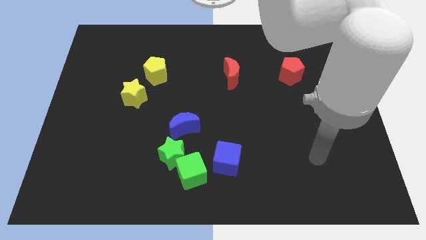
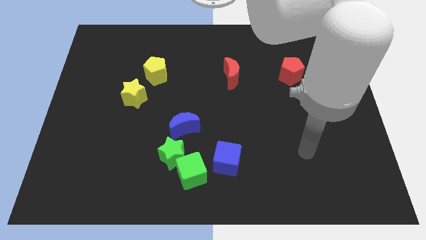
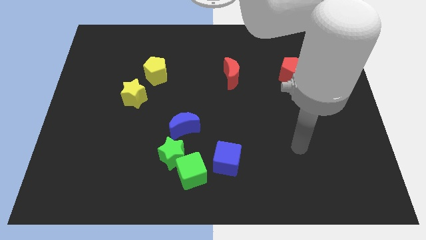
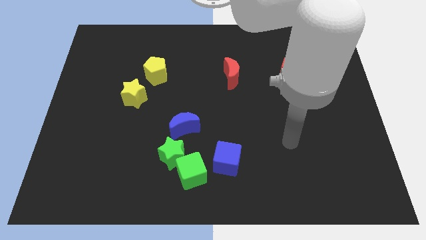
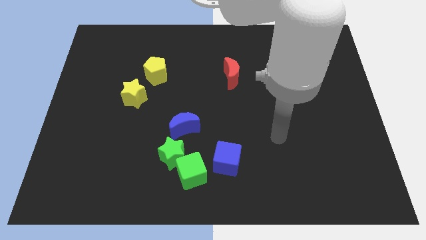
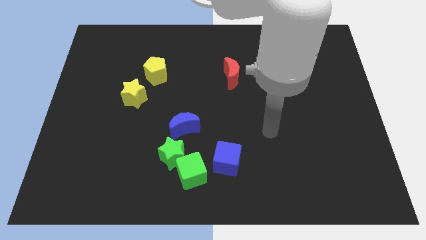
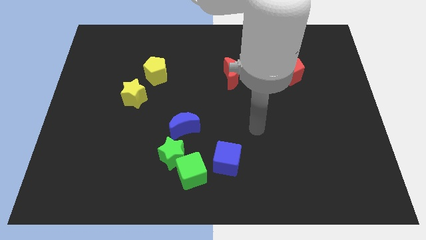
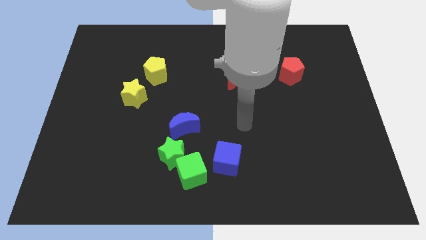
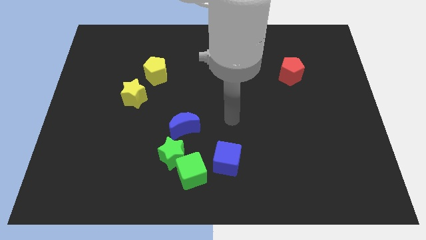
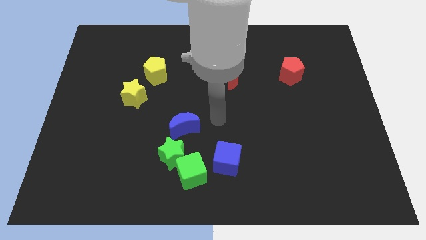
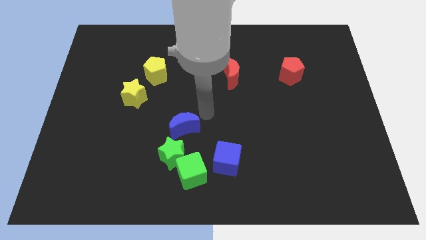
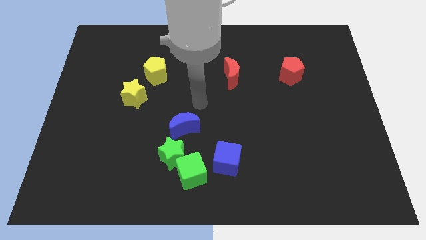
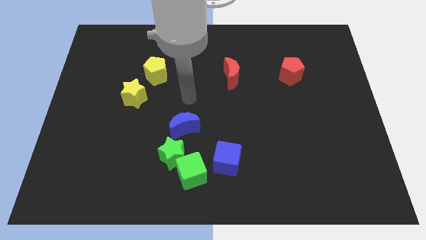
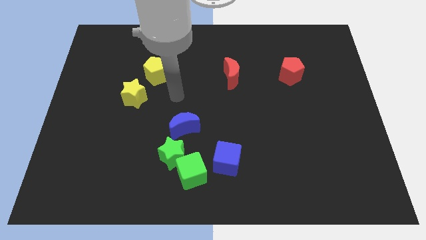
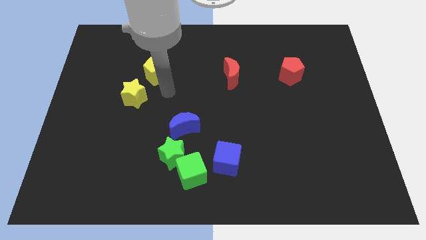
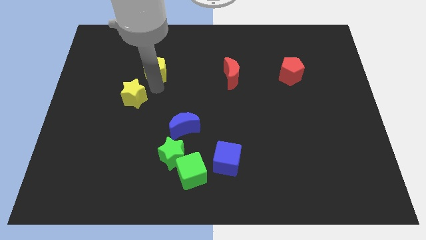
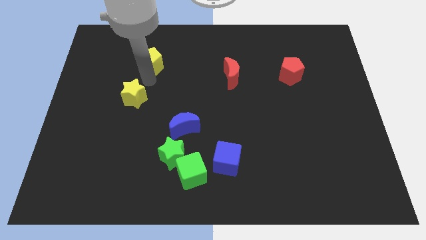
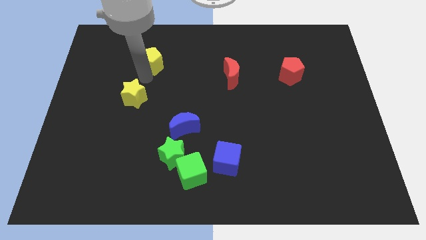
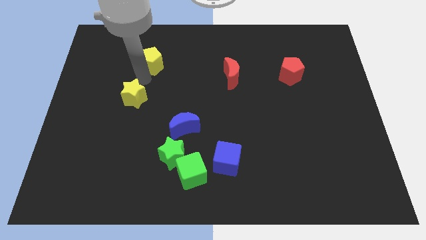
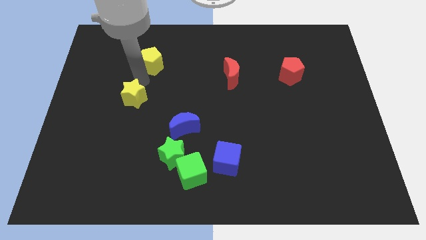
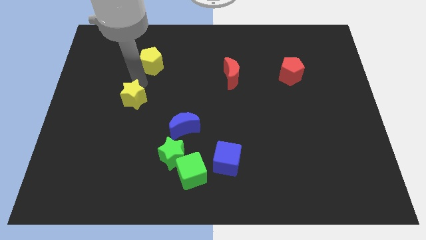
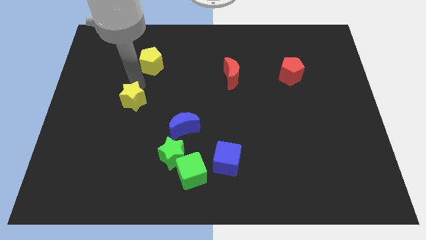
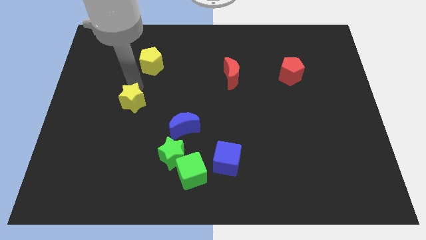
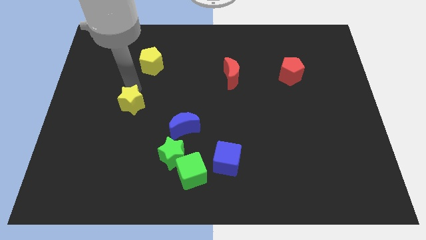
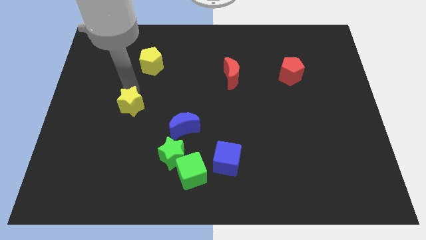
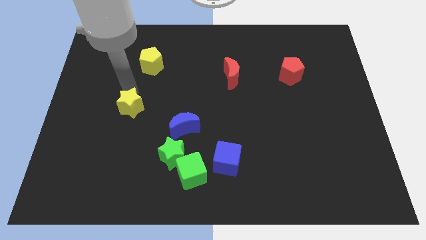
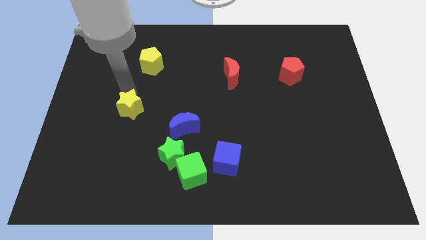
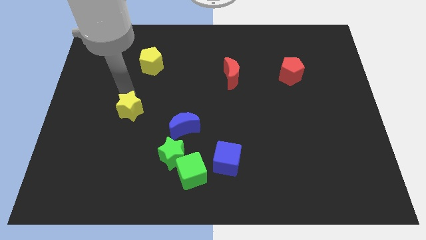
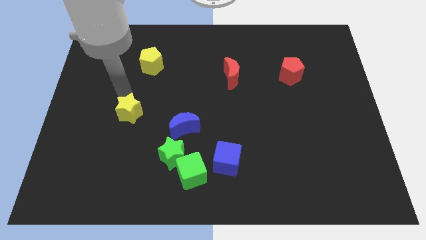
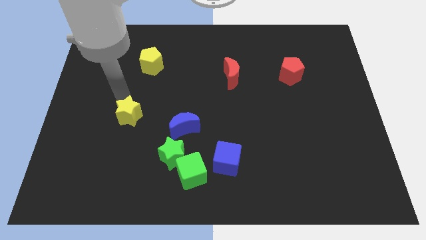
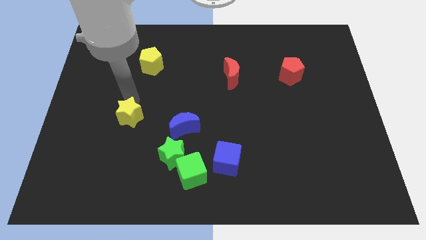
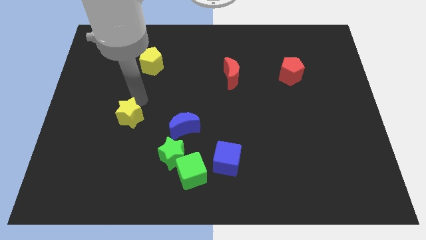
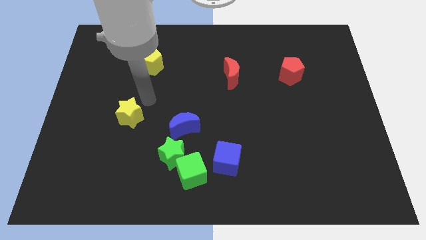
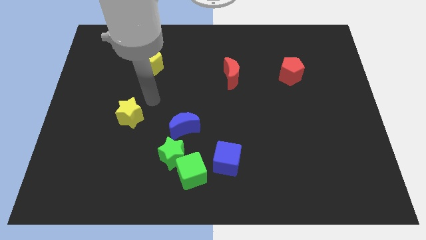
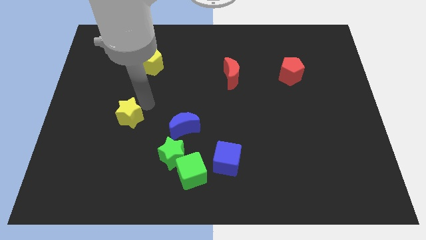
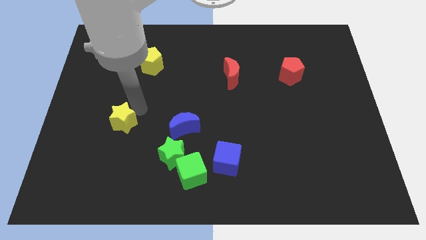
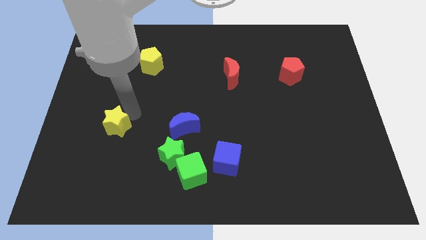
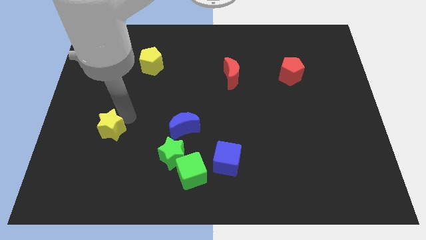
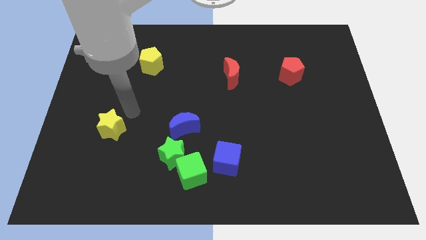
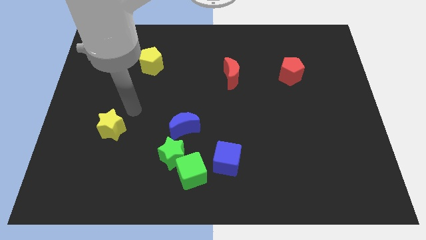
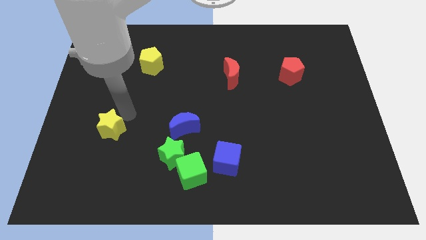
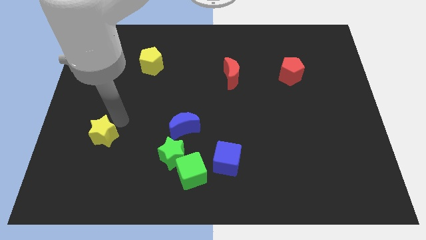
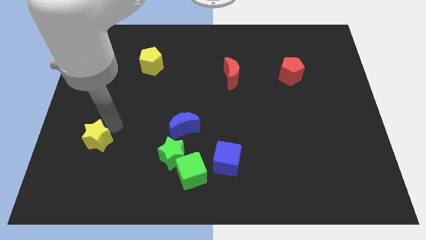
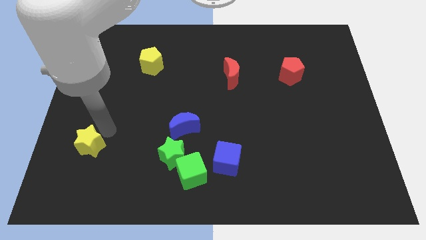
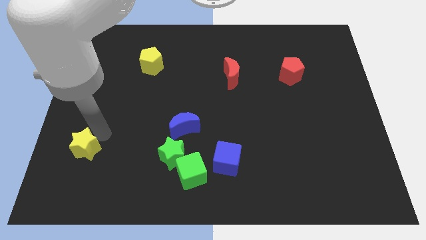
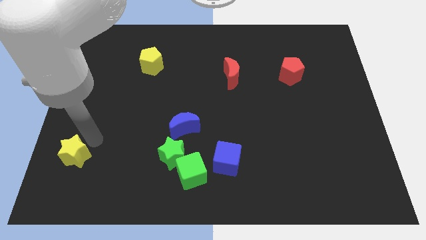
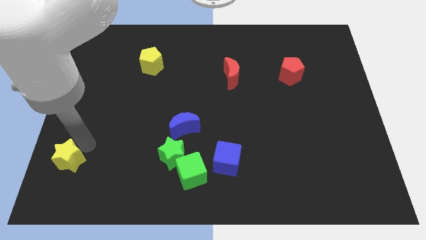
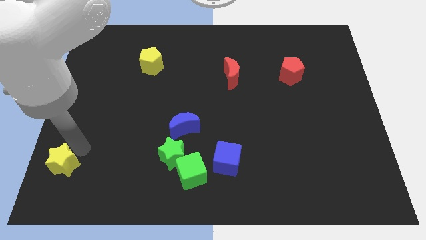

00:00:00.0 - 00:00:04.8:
push the yellow star to the bottom left corner

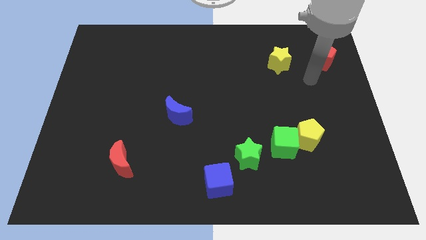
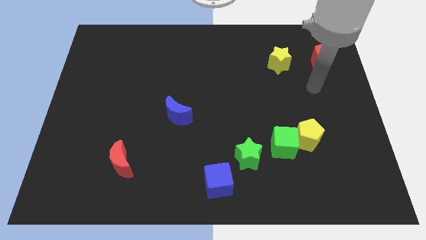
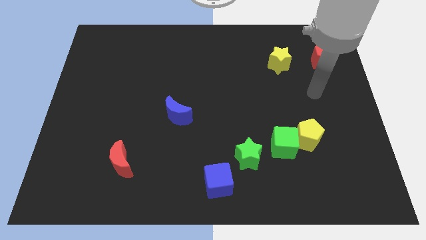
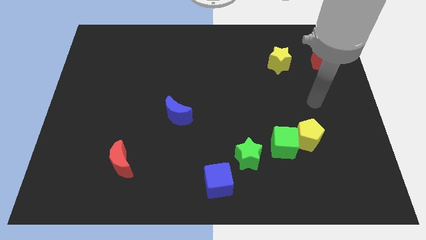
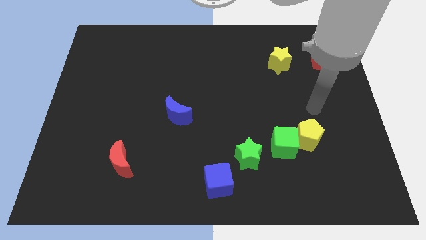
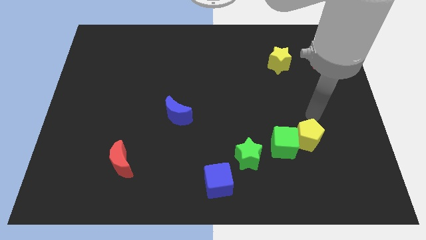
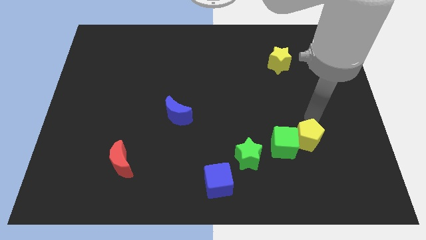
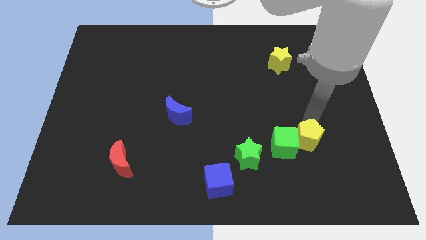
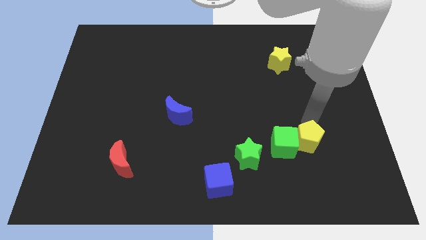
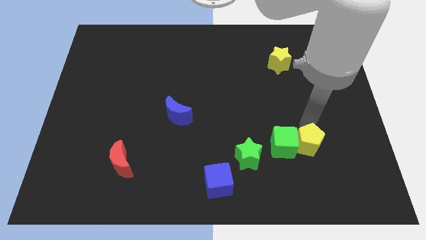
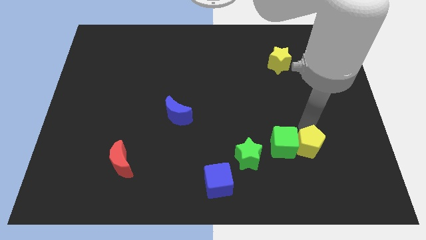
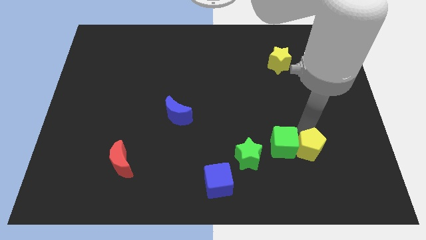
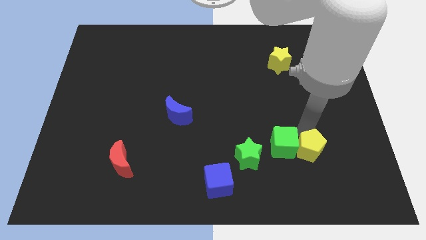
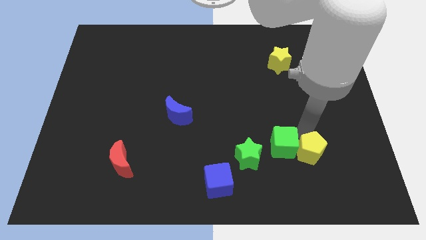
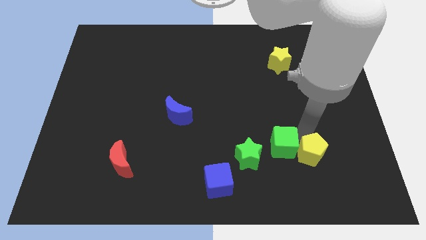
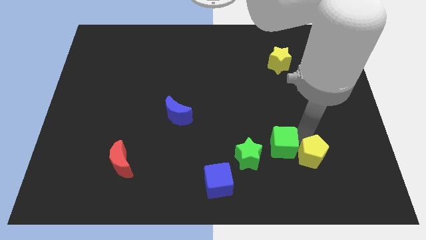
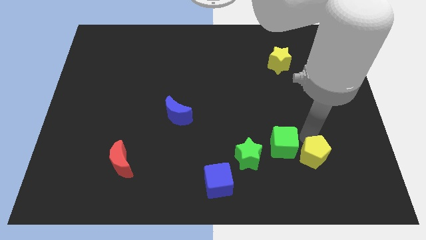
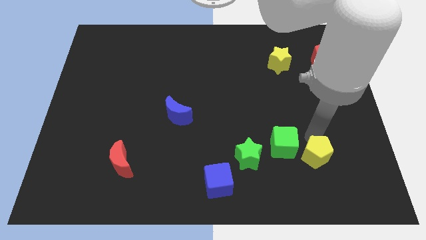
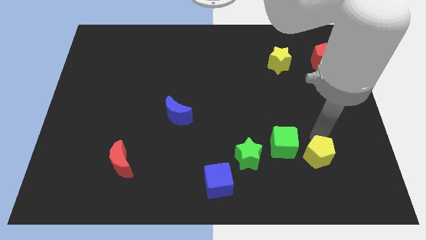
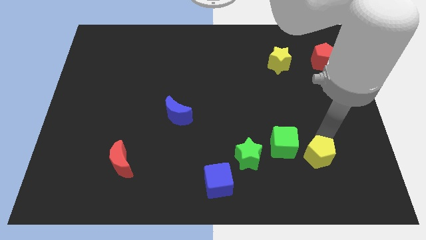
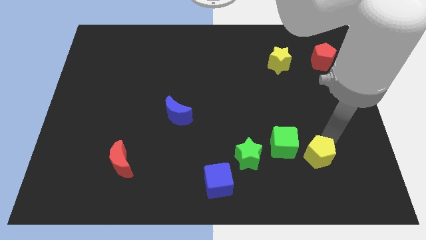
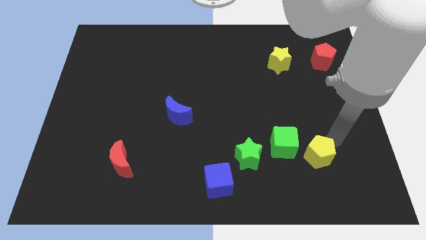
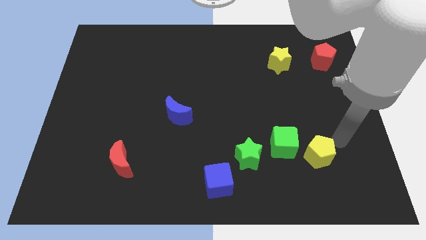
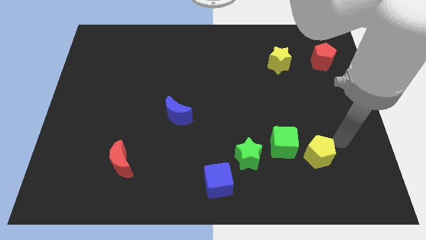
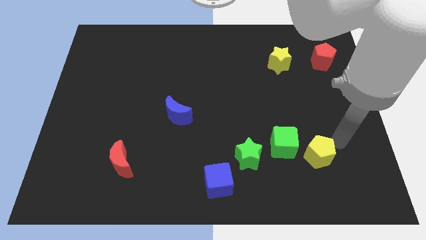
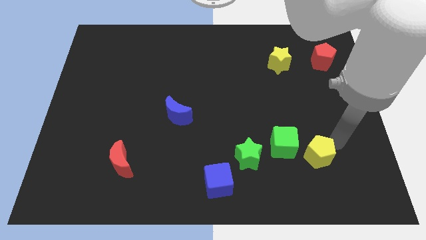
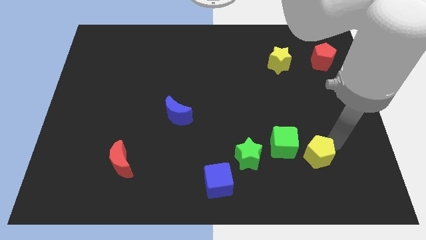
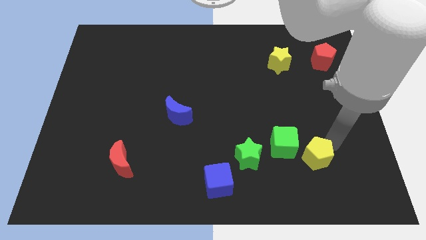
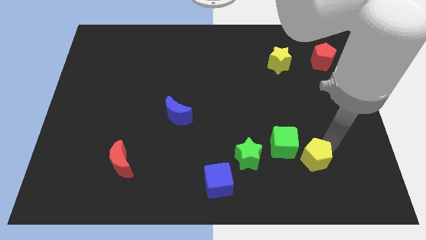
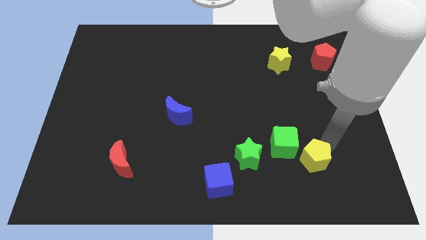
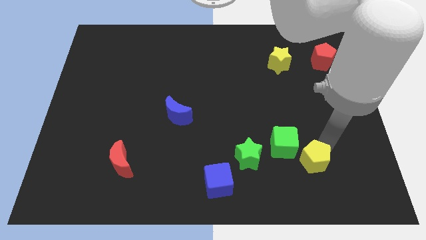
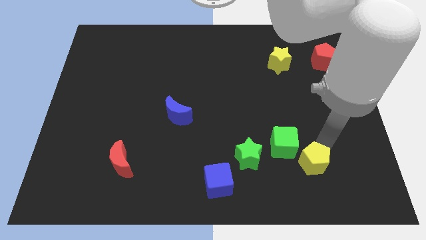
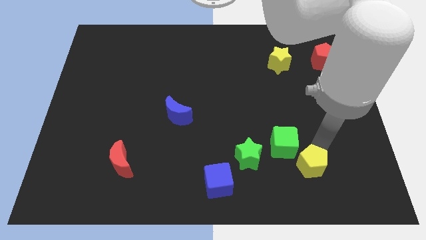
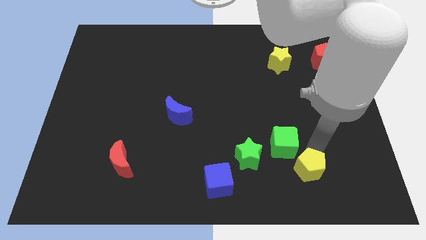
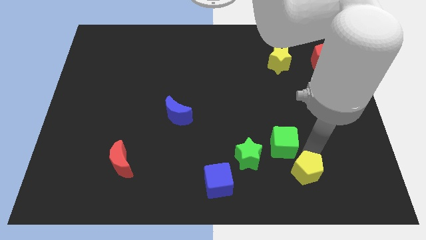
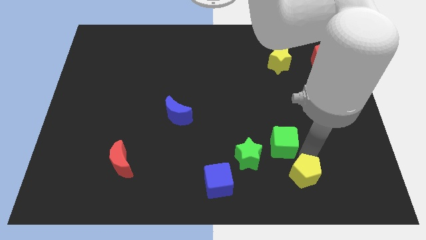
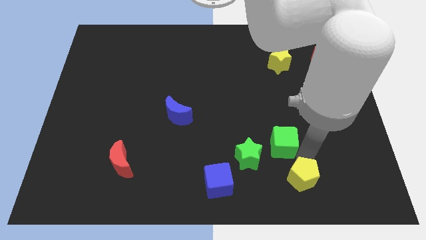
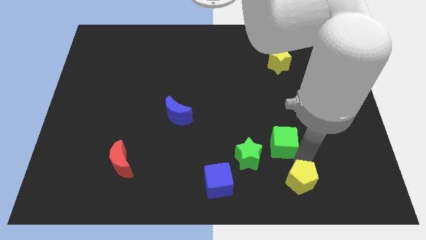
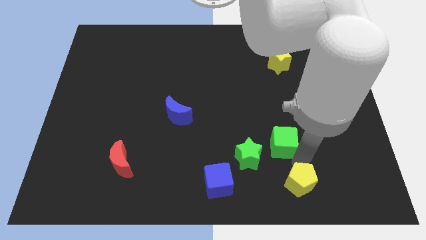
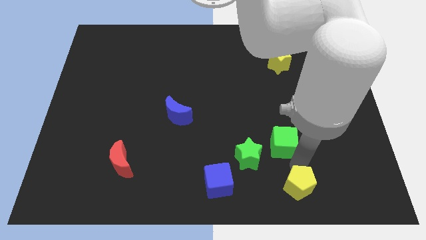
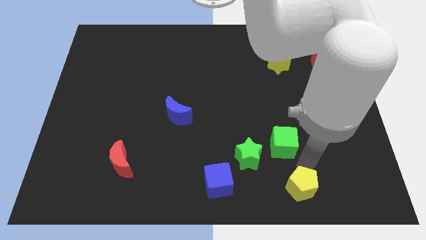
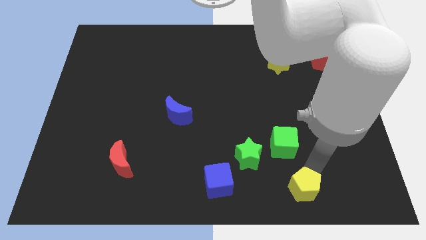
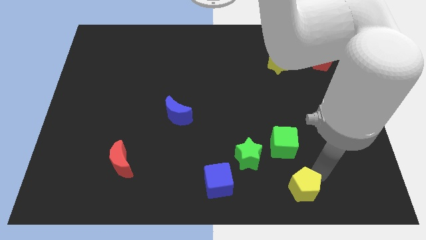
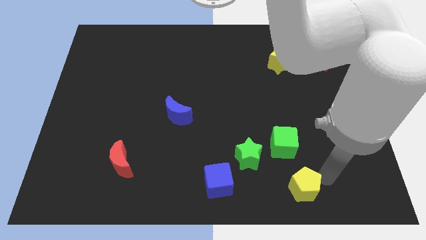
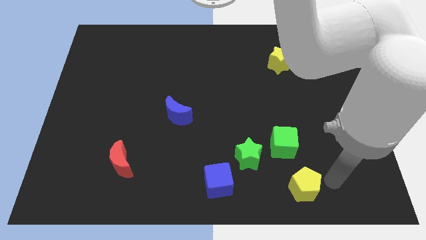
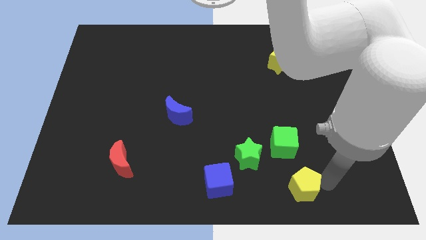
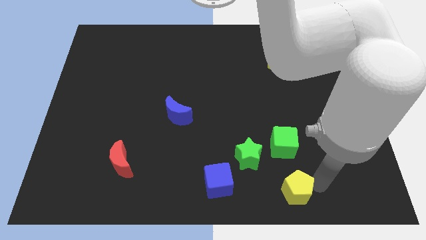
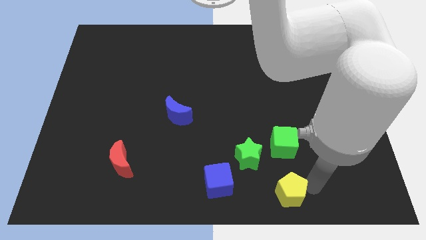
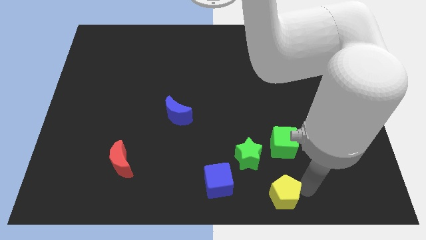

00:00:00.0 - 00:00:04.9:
push the yellow pentagon to the bottom
